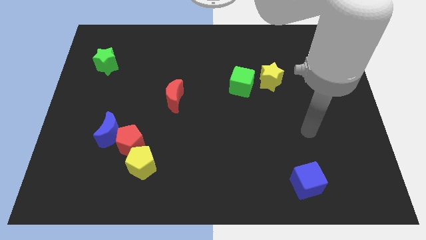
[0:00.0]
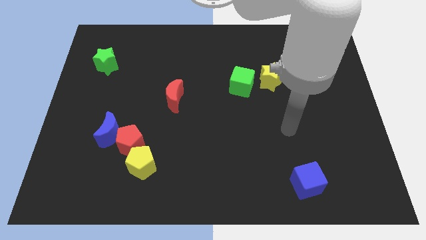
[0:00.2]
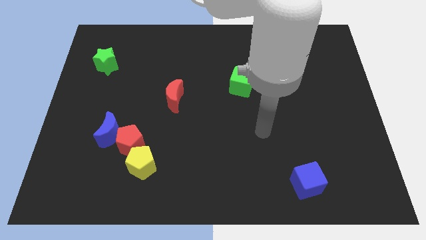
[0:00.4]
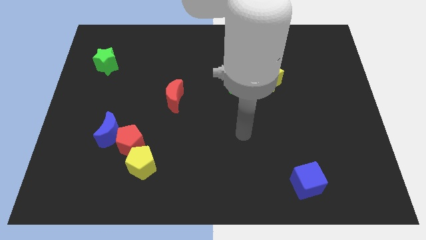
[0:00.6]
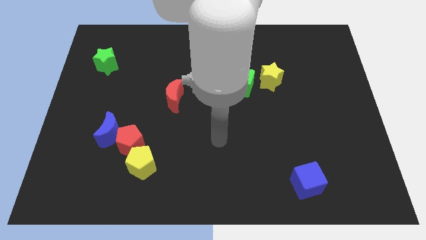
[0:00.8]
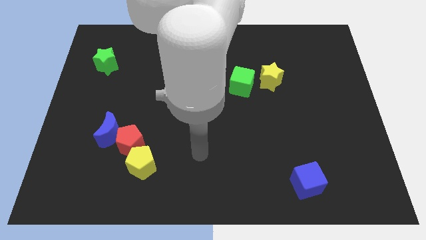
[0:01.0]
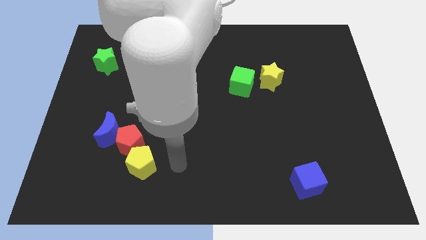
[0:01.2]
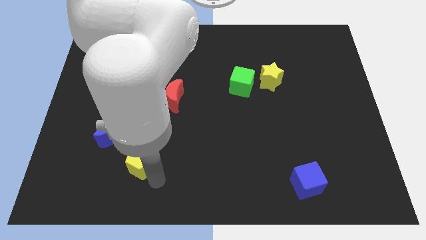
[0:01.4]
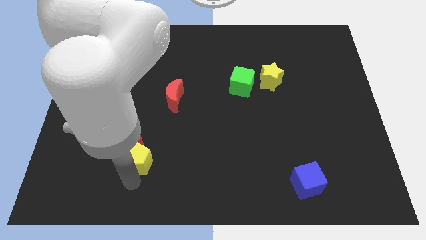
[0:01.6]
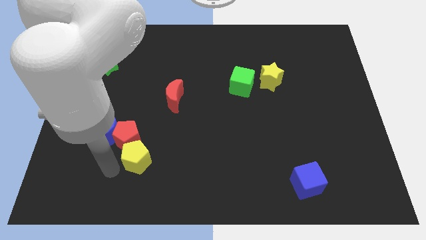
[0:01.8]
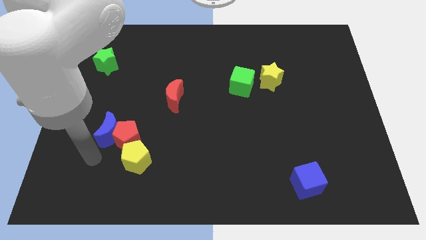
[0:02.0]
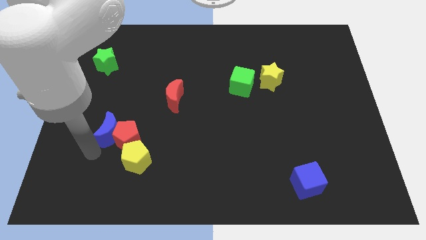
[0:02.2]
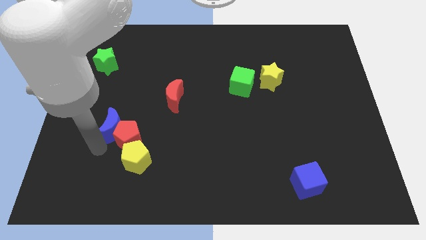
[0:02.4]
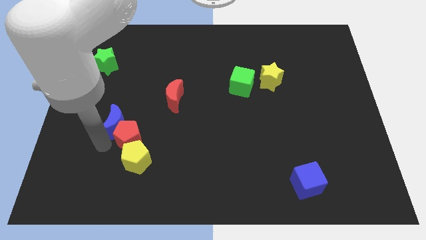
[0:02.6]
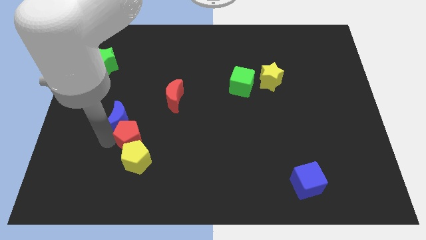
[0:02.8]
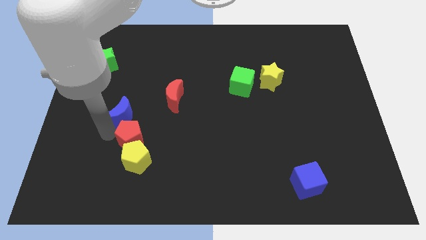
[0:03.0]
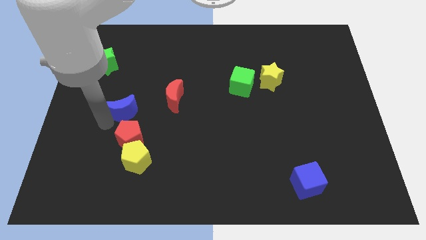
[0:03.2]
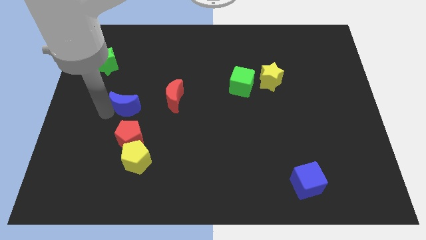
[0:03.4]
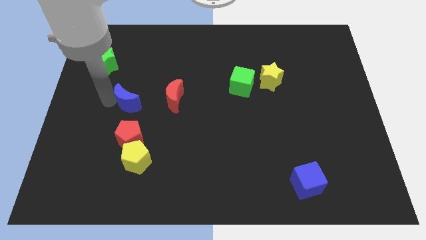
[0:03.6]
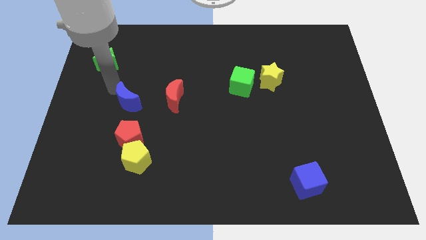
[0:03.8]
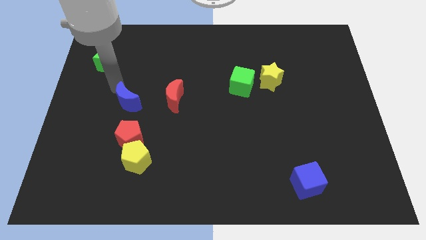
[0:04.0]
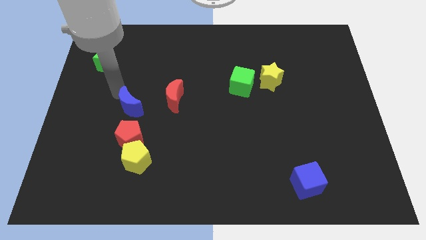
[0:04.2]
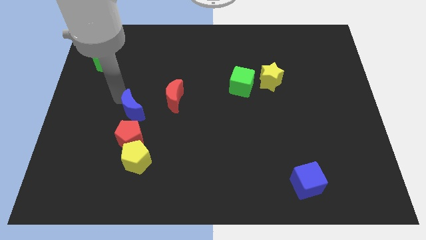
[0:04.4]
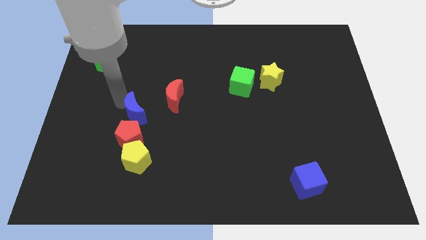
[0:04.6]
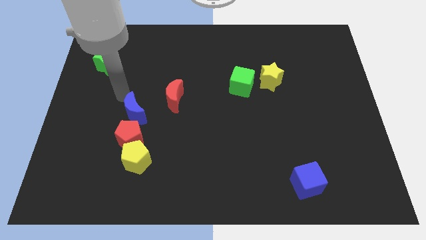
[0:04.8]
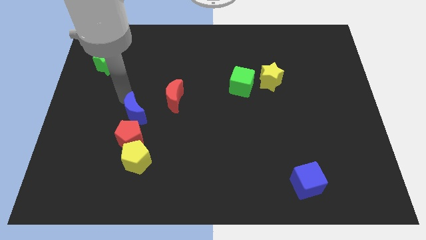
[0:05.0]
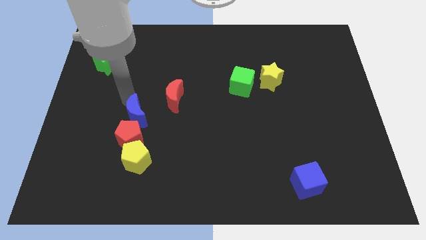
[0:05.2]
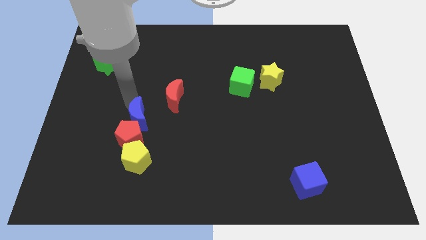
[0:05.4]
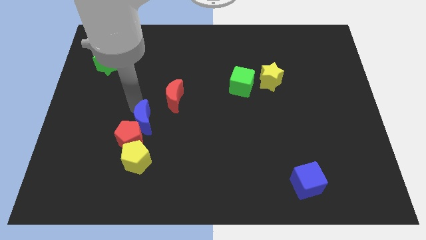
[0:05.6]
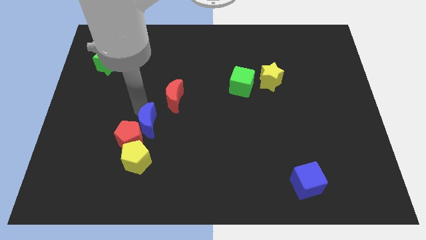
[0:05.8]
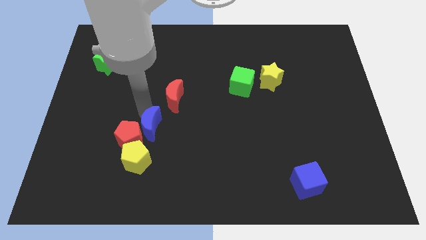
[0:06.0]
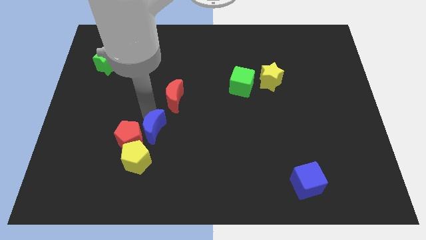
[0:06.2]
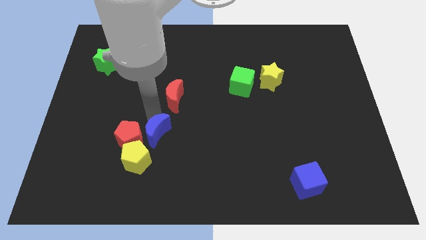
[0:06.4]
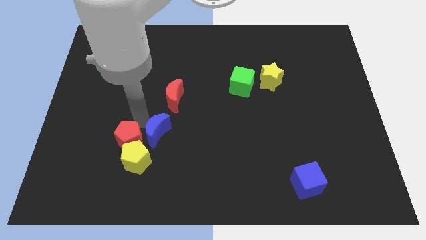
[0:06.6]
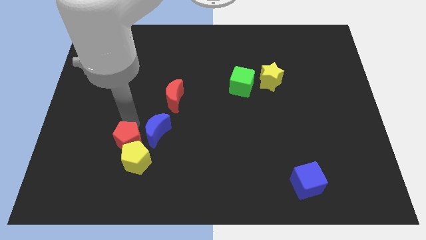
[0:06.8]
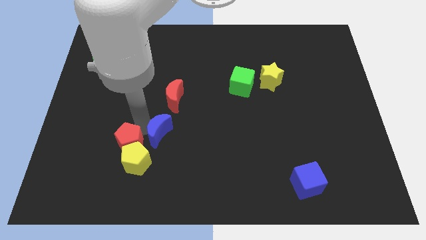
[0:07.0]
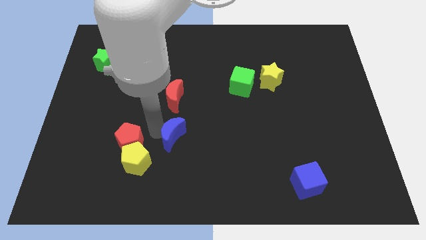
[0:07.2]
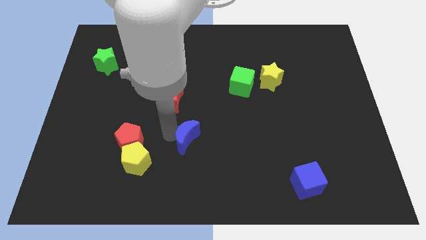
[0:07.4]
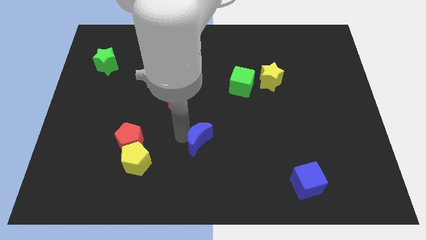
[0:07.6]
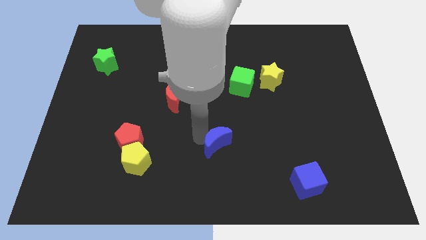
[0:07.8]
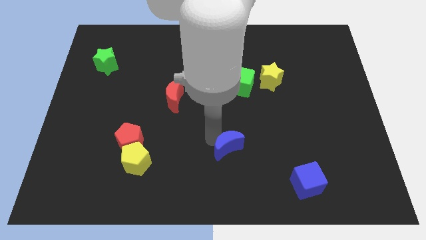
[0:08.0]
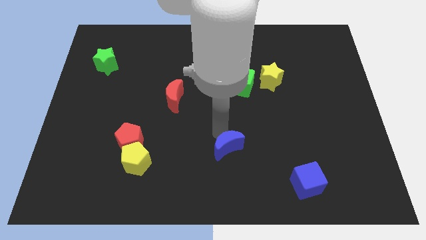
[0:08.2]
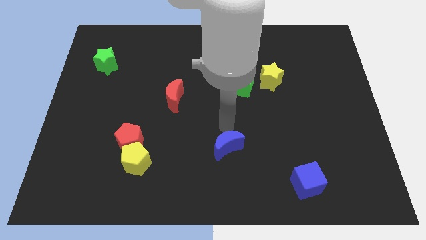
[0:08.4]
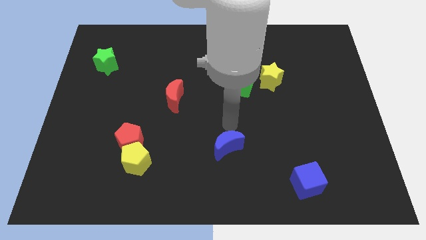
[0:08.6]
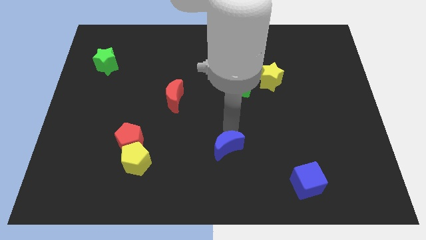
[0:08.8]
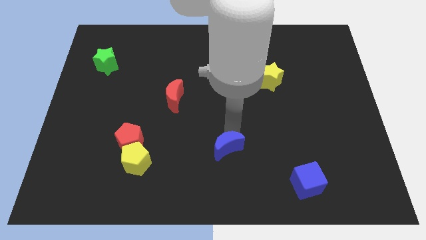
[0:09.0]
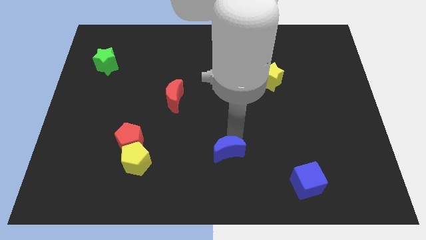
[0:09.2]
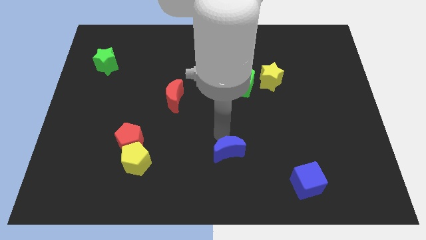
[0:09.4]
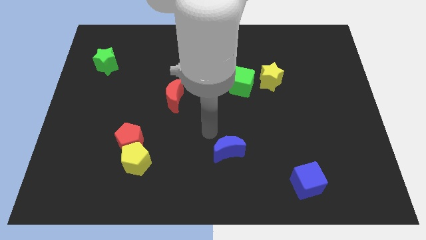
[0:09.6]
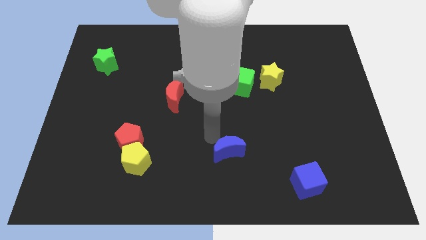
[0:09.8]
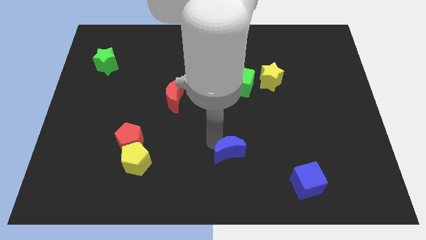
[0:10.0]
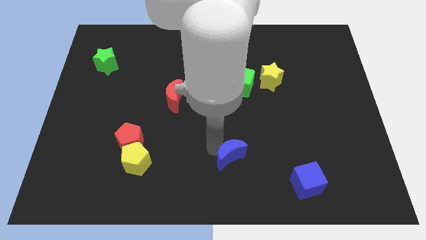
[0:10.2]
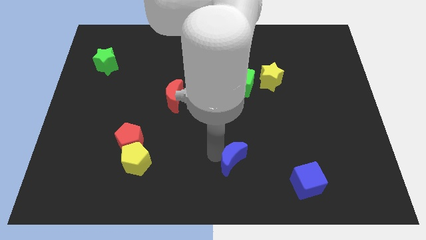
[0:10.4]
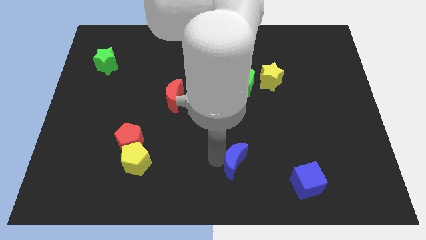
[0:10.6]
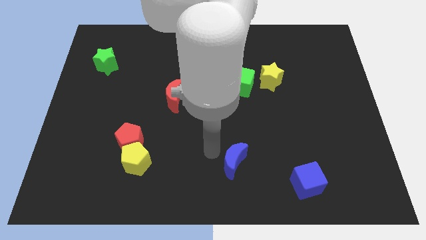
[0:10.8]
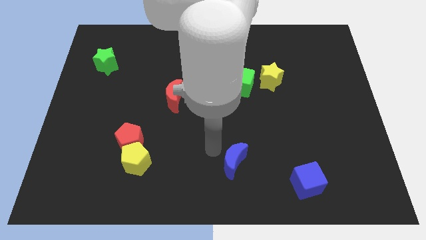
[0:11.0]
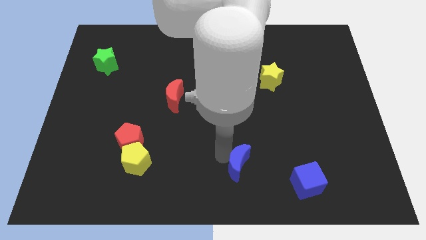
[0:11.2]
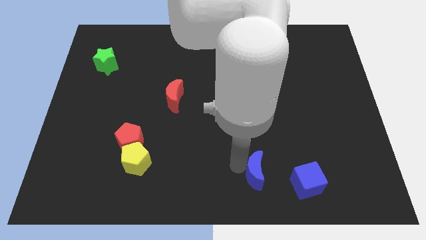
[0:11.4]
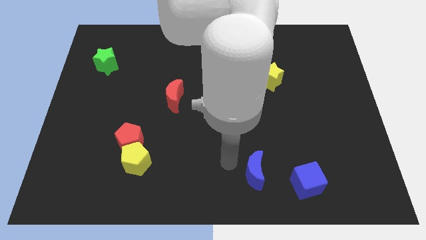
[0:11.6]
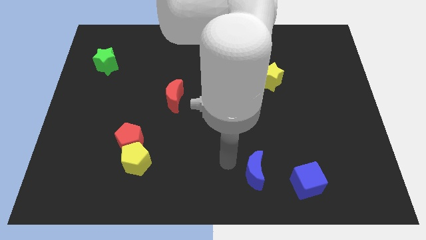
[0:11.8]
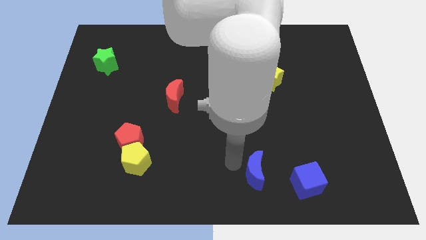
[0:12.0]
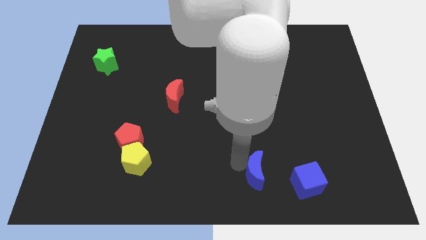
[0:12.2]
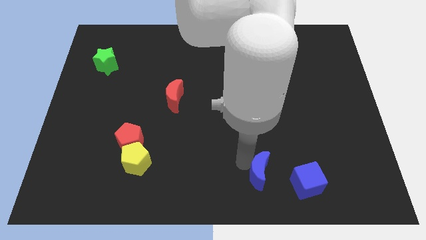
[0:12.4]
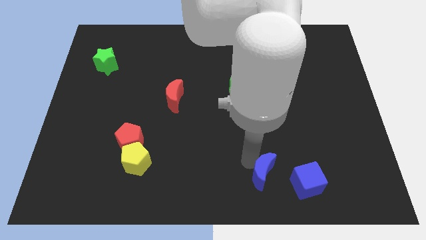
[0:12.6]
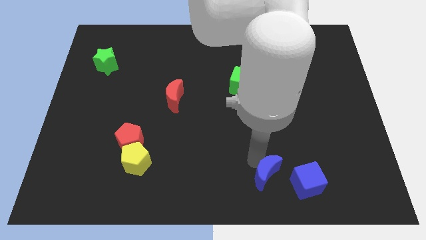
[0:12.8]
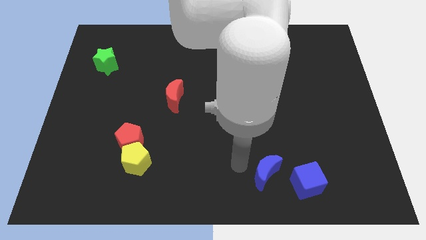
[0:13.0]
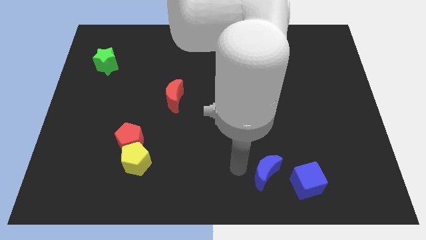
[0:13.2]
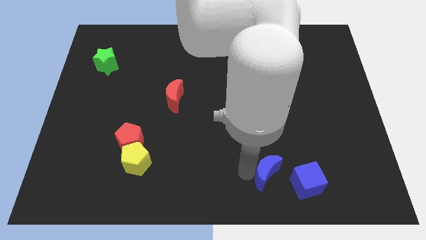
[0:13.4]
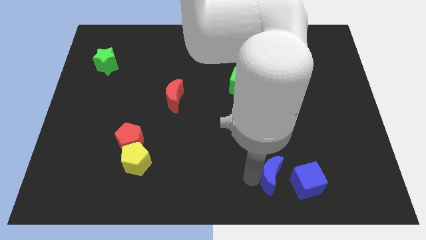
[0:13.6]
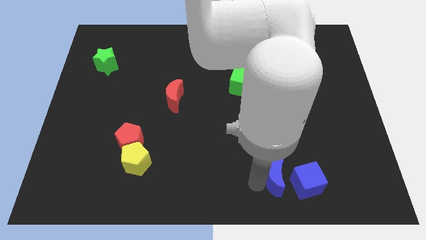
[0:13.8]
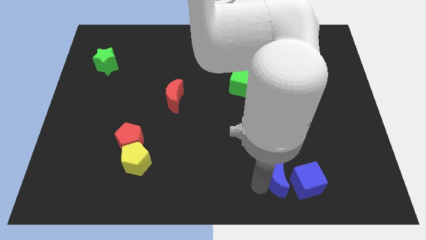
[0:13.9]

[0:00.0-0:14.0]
push the blue moon close to the blue cube

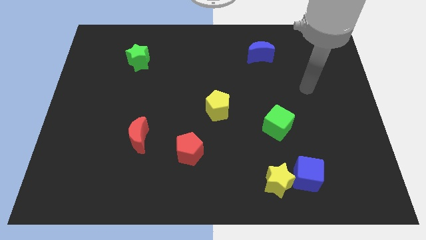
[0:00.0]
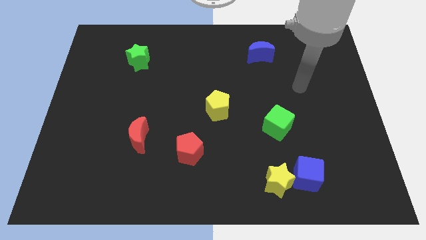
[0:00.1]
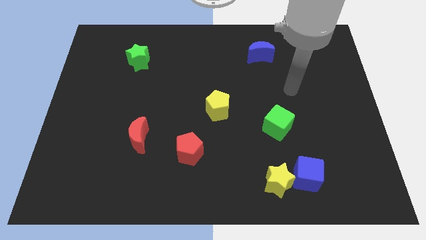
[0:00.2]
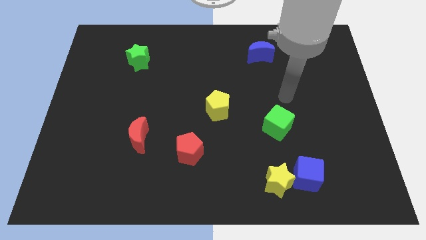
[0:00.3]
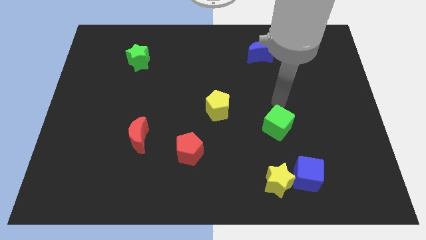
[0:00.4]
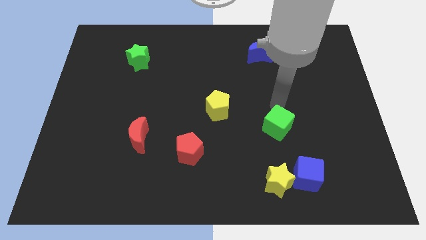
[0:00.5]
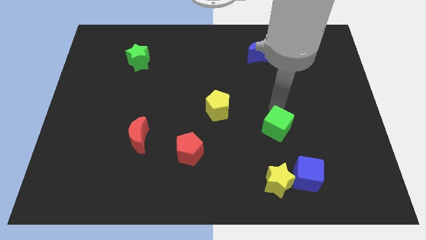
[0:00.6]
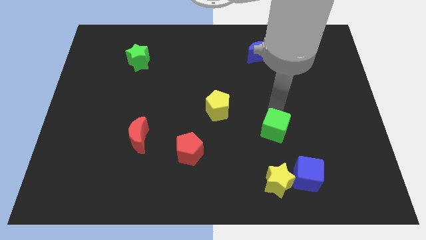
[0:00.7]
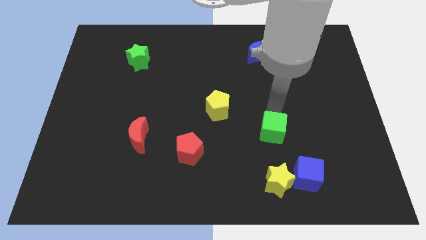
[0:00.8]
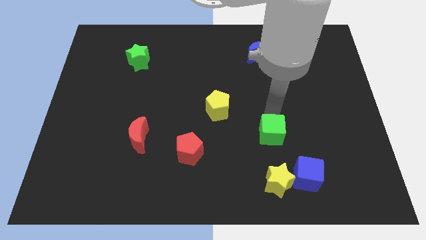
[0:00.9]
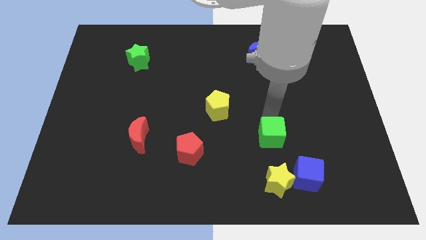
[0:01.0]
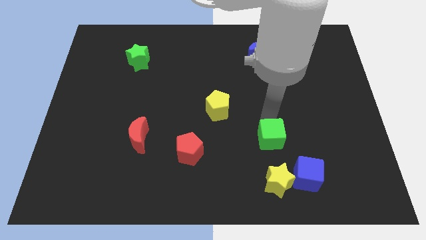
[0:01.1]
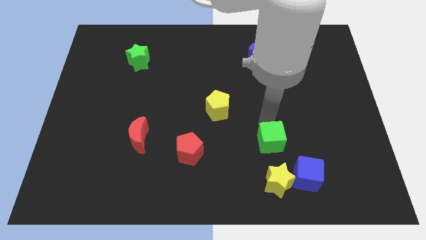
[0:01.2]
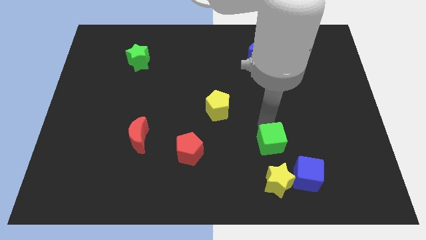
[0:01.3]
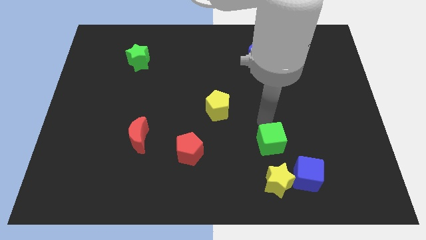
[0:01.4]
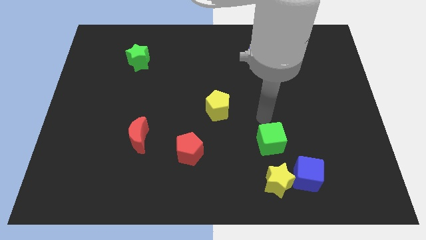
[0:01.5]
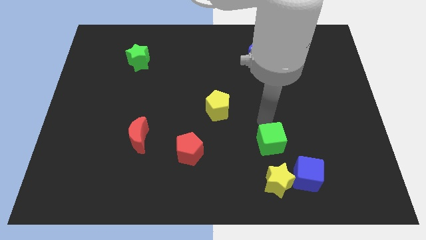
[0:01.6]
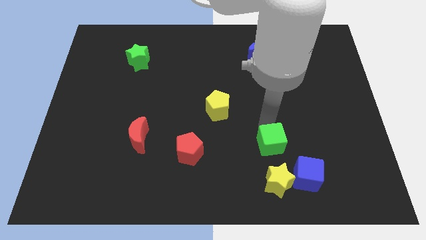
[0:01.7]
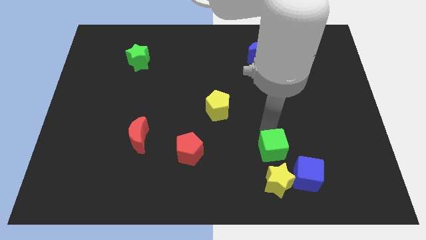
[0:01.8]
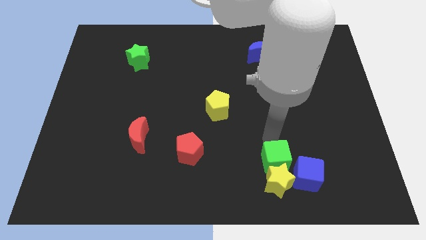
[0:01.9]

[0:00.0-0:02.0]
push the green cube to the yellow star
